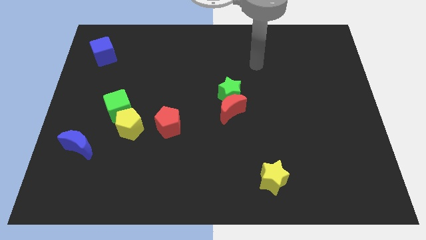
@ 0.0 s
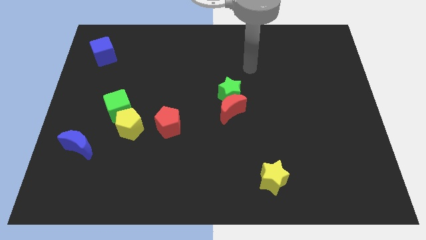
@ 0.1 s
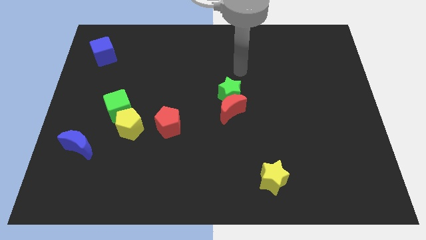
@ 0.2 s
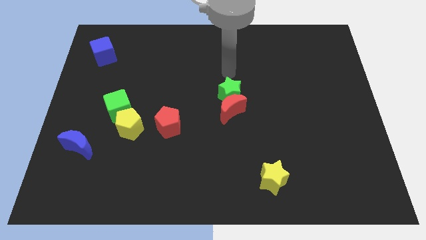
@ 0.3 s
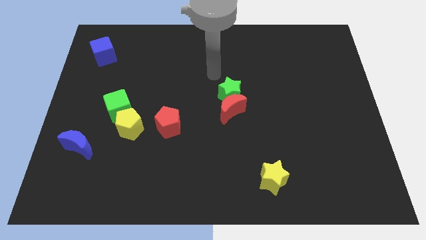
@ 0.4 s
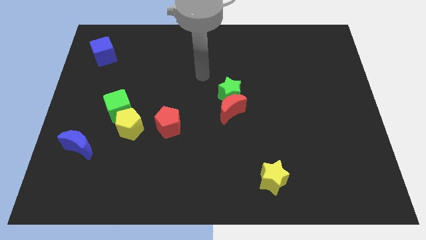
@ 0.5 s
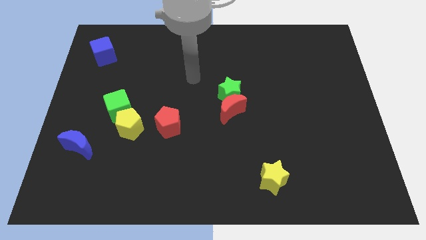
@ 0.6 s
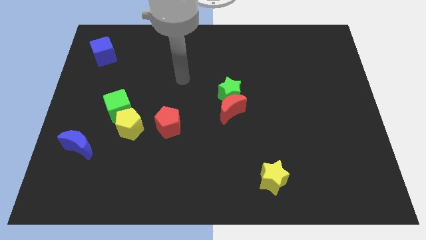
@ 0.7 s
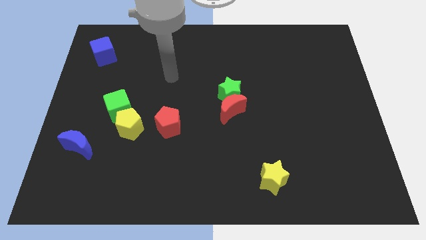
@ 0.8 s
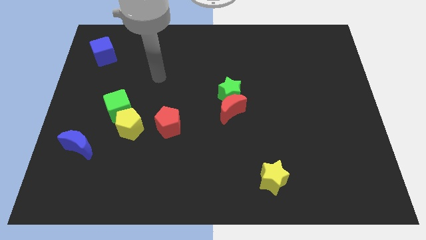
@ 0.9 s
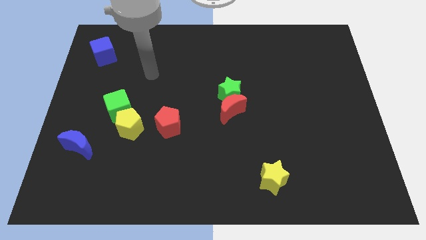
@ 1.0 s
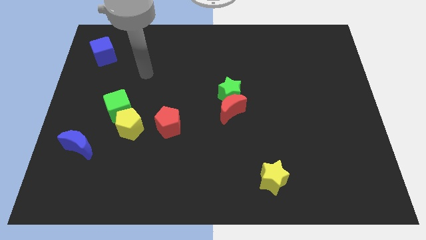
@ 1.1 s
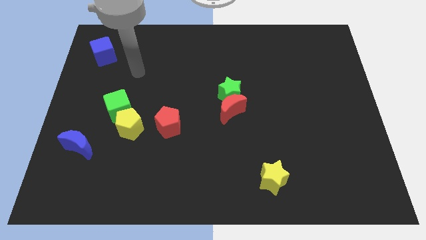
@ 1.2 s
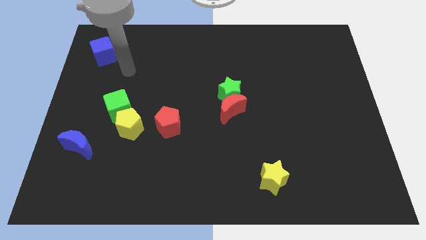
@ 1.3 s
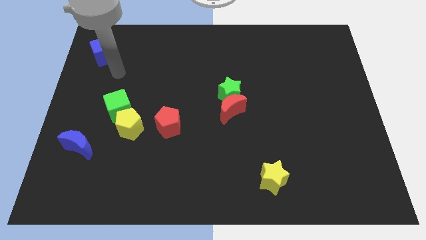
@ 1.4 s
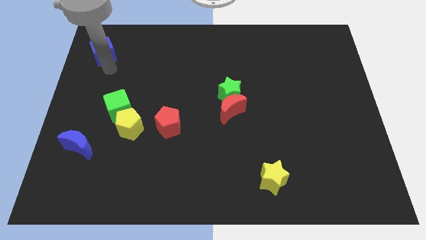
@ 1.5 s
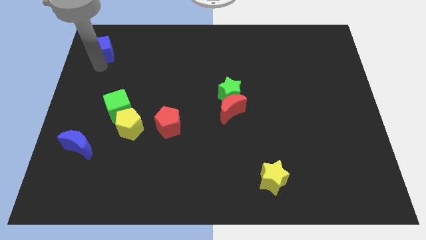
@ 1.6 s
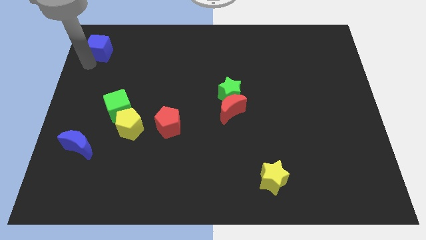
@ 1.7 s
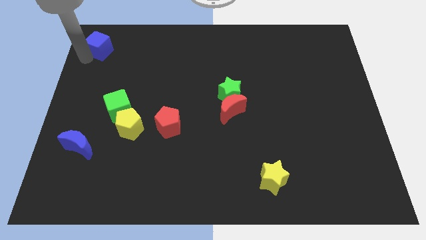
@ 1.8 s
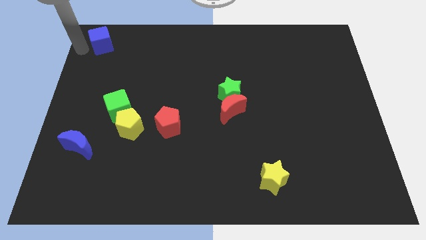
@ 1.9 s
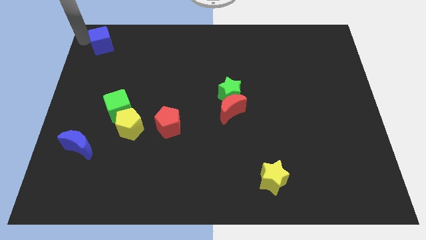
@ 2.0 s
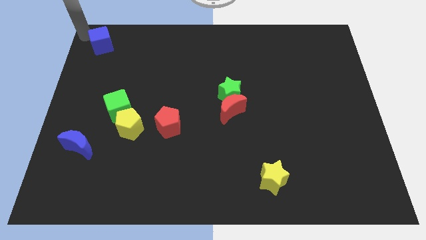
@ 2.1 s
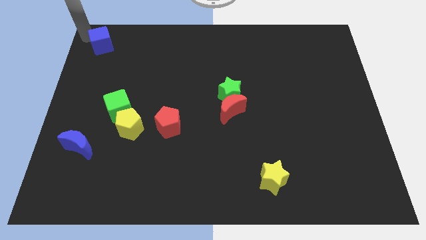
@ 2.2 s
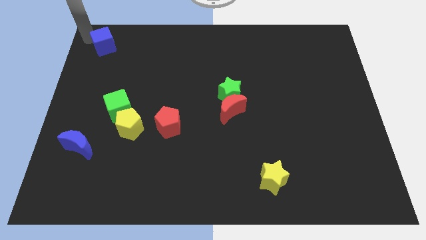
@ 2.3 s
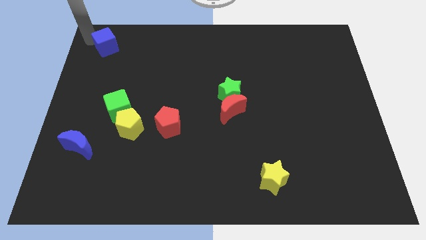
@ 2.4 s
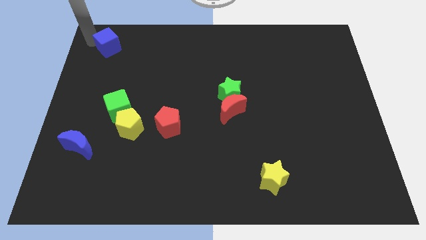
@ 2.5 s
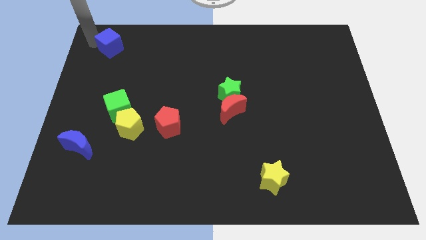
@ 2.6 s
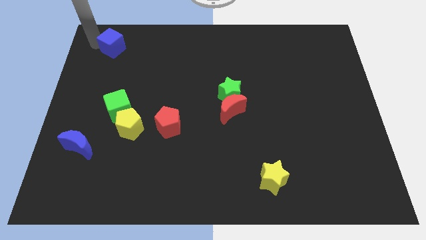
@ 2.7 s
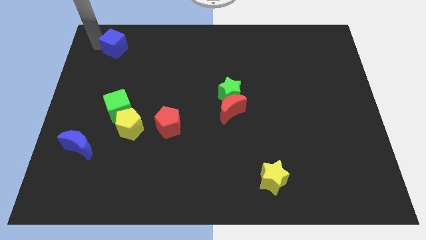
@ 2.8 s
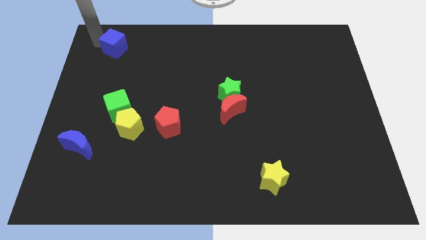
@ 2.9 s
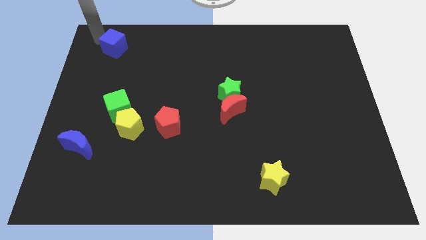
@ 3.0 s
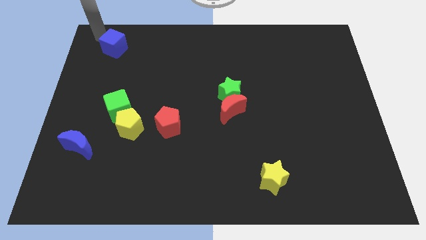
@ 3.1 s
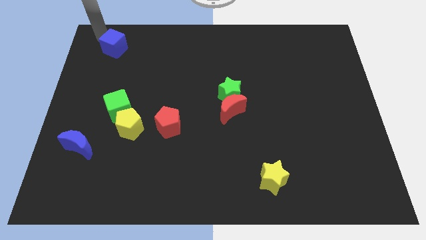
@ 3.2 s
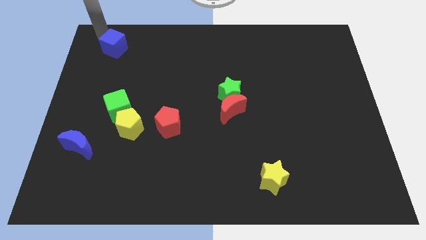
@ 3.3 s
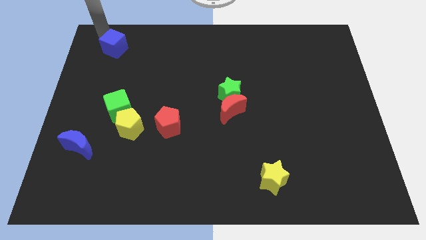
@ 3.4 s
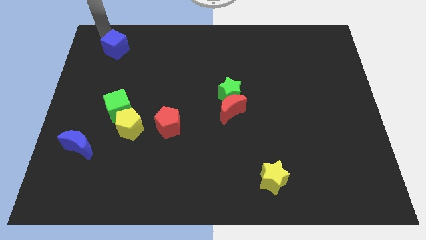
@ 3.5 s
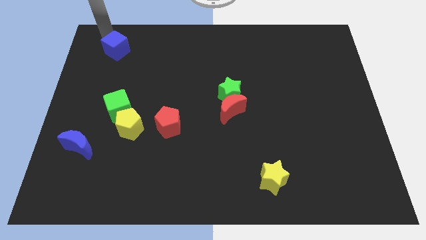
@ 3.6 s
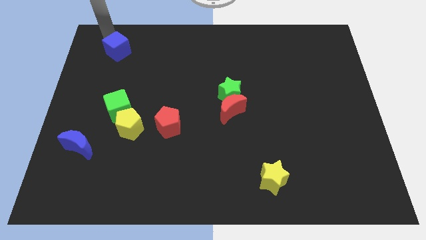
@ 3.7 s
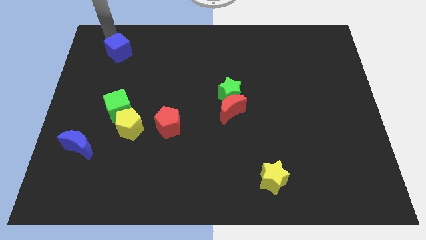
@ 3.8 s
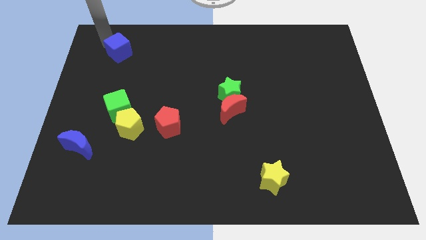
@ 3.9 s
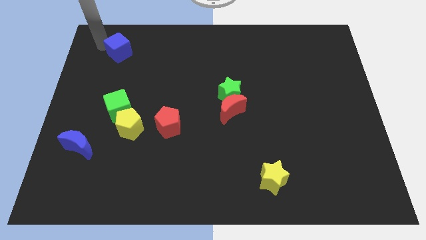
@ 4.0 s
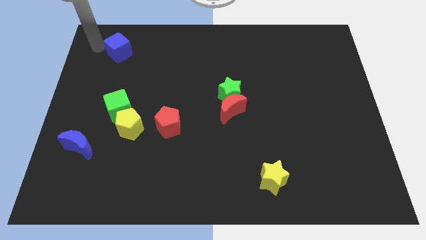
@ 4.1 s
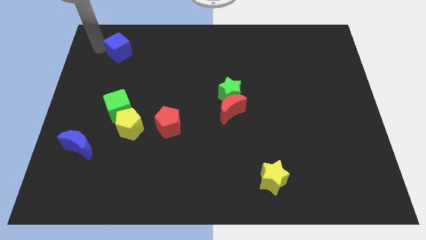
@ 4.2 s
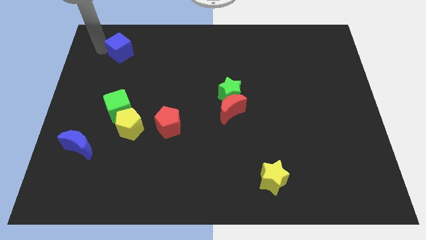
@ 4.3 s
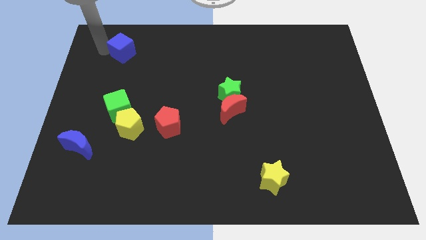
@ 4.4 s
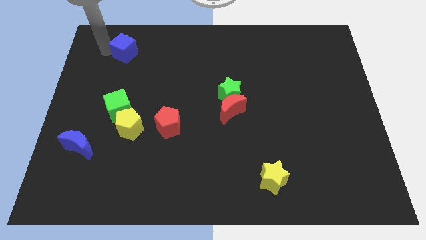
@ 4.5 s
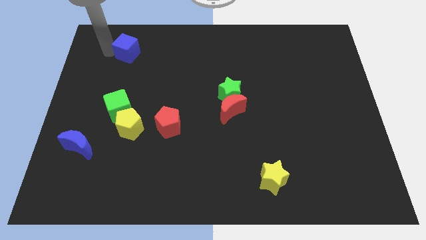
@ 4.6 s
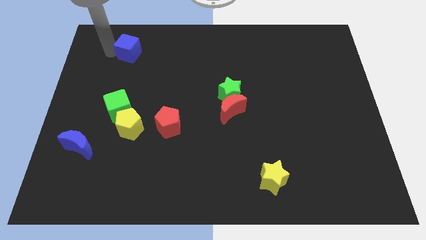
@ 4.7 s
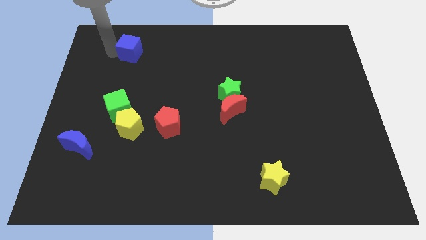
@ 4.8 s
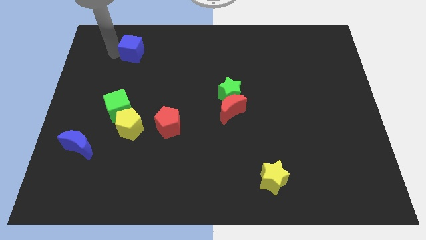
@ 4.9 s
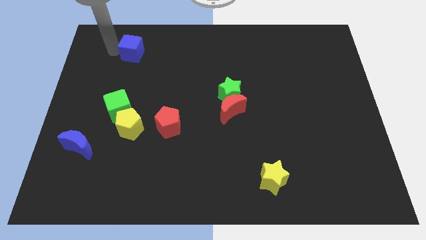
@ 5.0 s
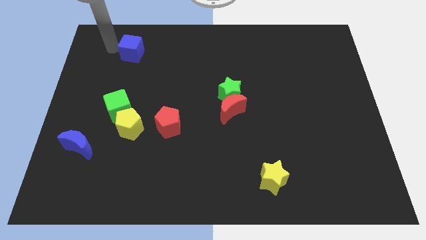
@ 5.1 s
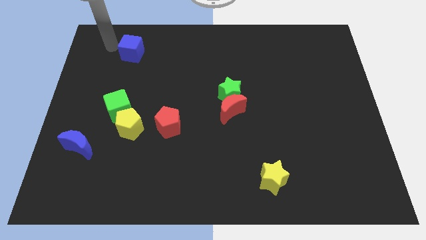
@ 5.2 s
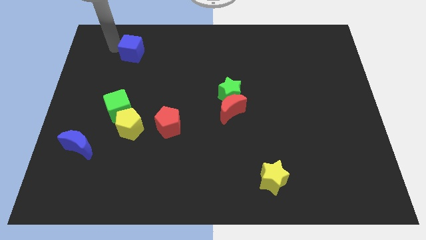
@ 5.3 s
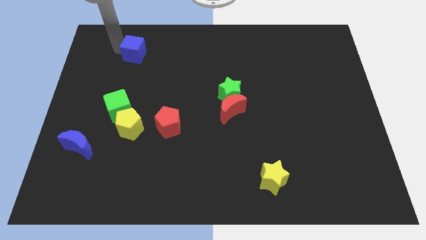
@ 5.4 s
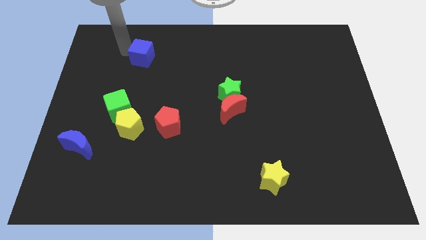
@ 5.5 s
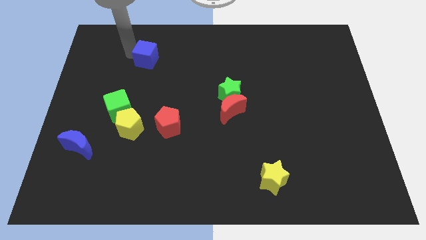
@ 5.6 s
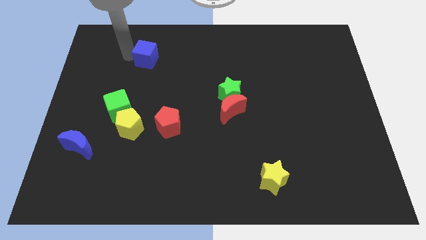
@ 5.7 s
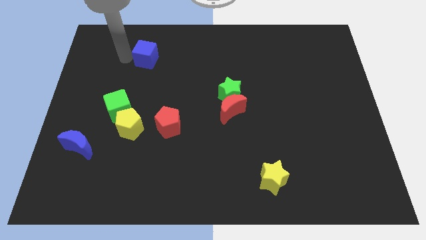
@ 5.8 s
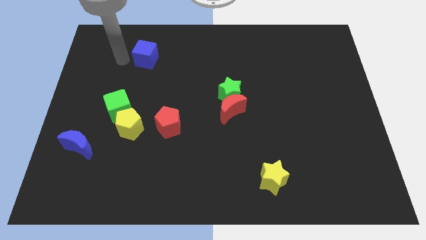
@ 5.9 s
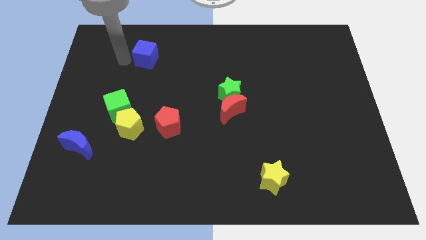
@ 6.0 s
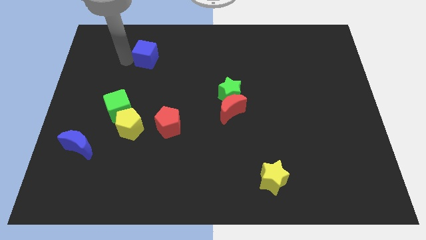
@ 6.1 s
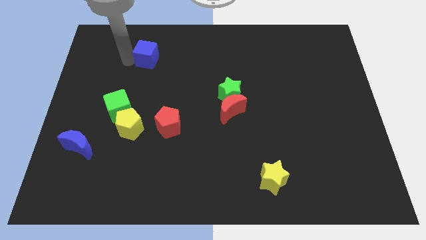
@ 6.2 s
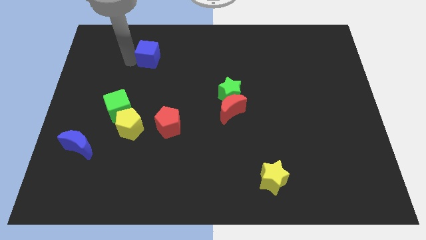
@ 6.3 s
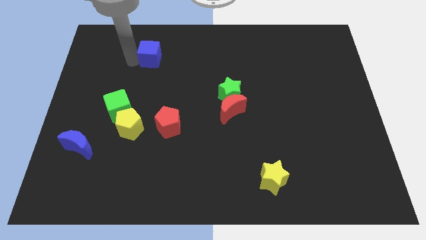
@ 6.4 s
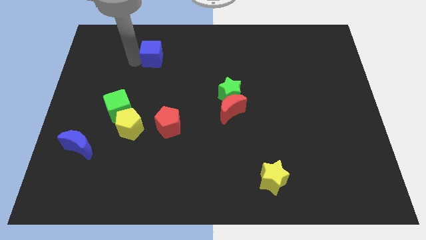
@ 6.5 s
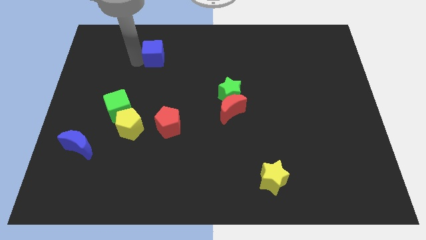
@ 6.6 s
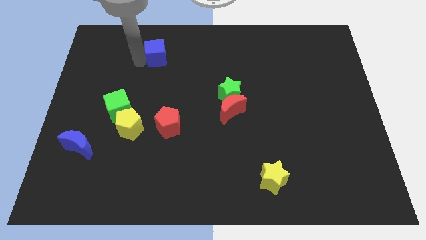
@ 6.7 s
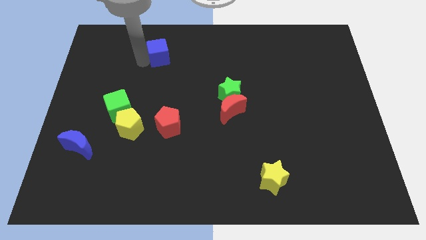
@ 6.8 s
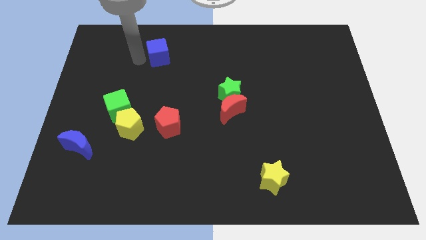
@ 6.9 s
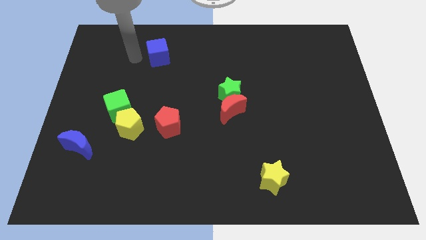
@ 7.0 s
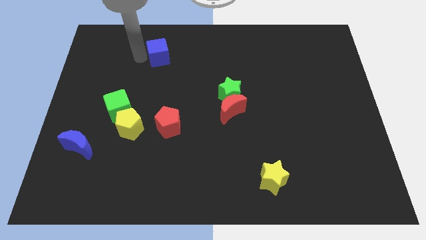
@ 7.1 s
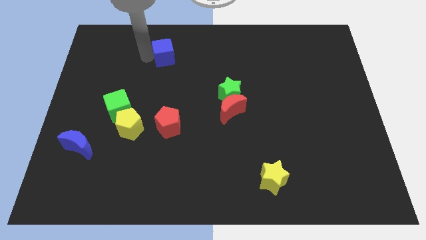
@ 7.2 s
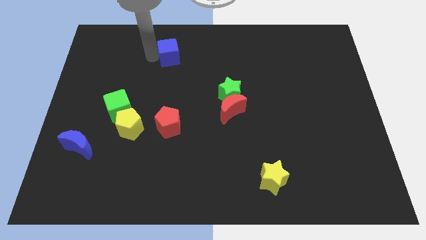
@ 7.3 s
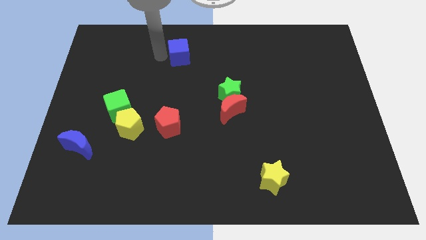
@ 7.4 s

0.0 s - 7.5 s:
slide the blue cube right

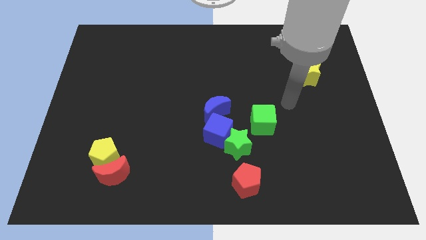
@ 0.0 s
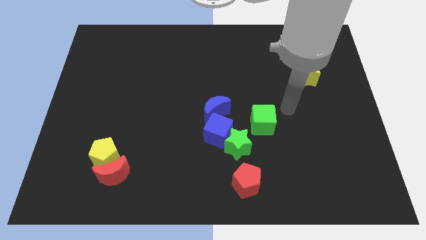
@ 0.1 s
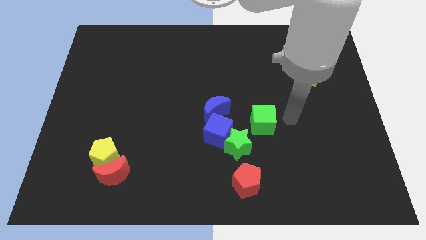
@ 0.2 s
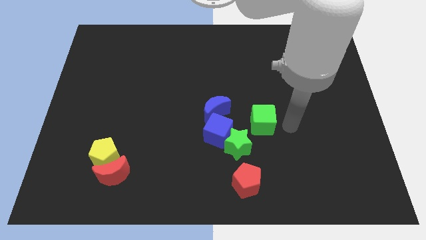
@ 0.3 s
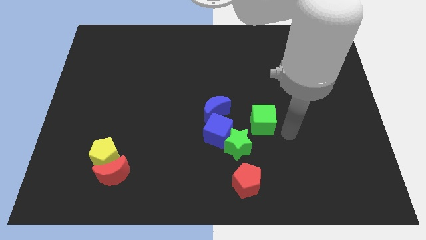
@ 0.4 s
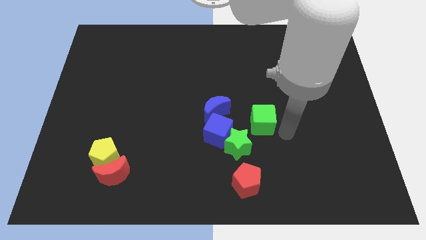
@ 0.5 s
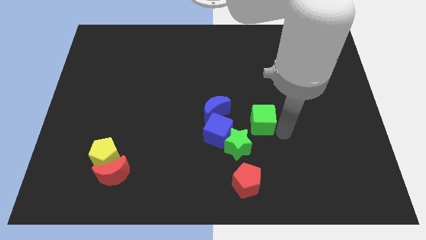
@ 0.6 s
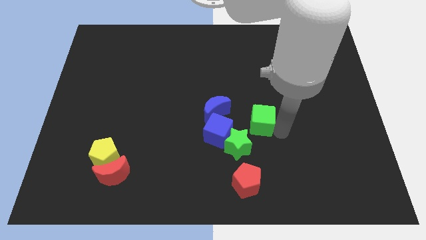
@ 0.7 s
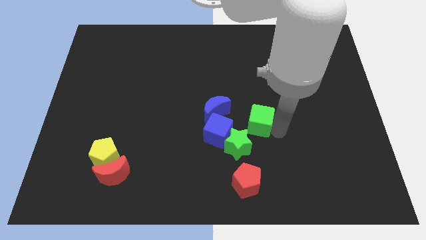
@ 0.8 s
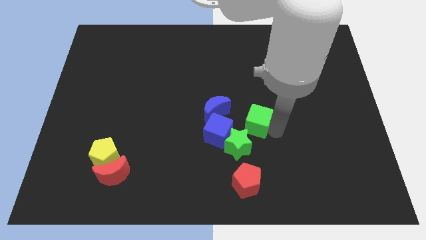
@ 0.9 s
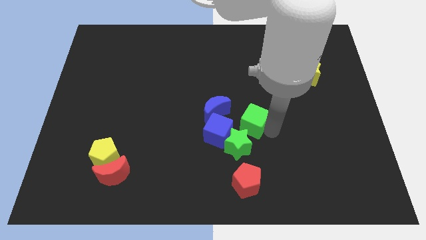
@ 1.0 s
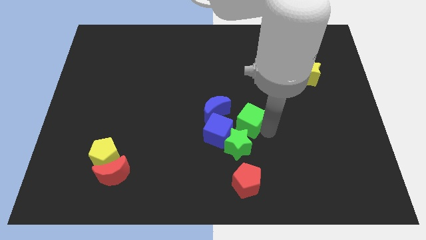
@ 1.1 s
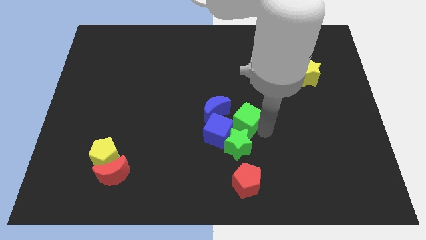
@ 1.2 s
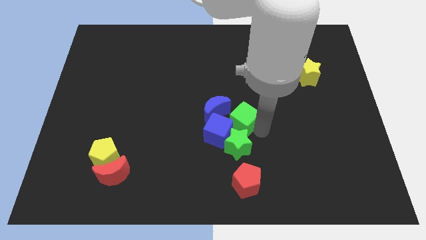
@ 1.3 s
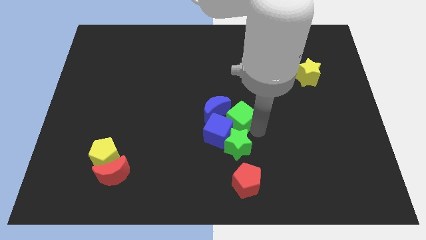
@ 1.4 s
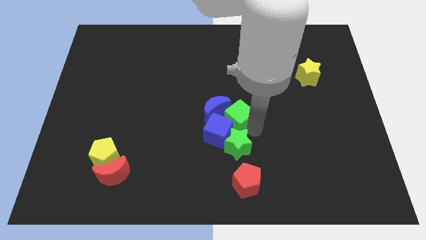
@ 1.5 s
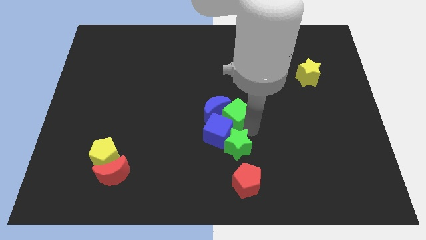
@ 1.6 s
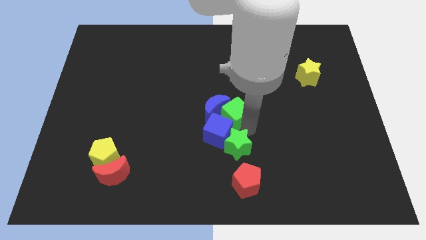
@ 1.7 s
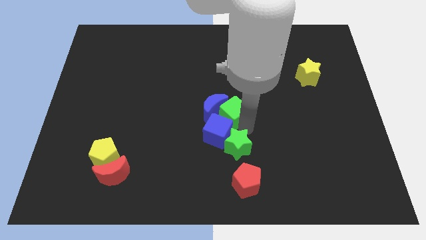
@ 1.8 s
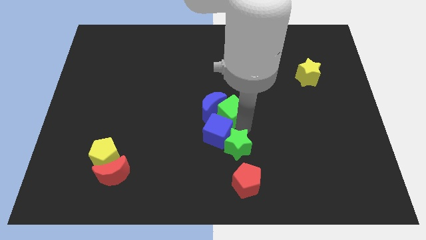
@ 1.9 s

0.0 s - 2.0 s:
slide the green cube a bit left
